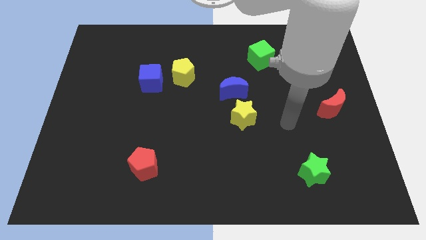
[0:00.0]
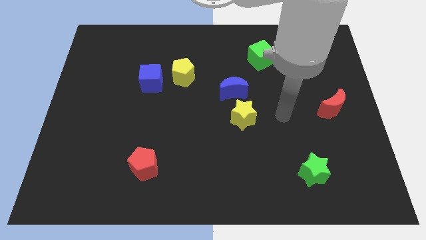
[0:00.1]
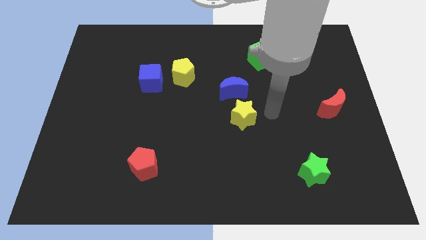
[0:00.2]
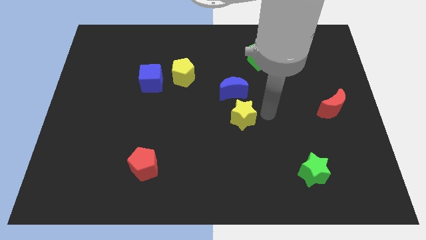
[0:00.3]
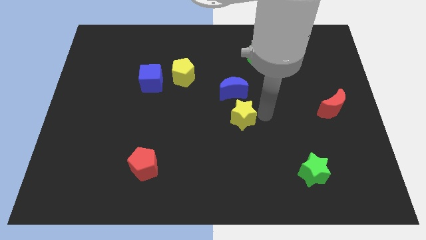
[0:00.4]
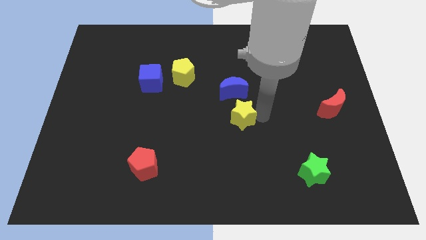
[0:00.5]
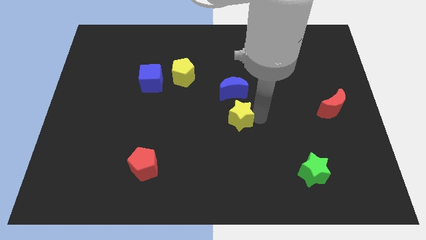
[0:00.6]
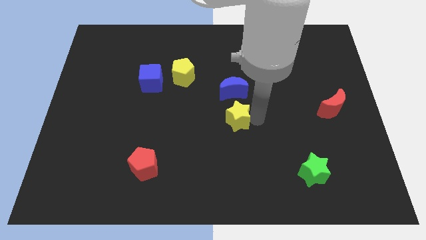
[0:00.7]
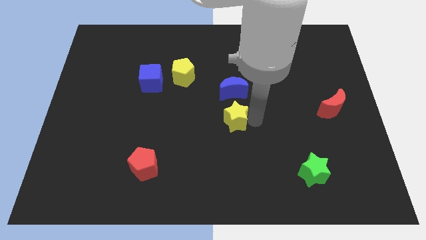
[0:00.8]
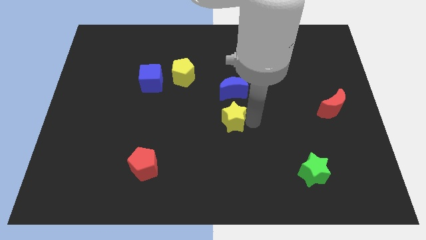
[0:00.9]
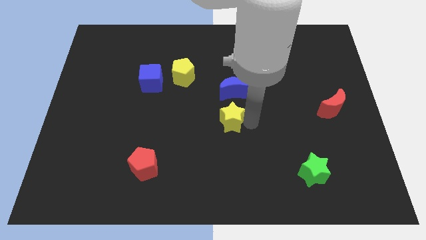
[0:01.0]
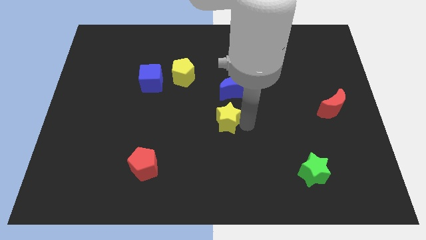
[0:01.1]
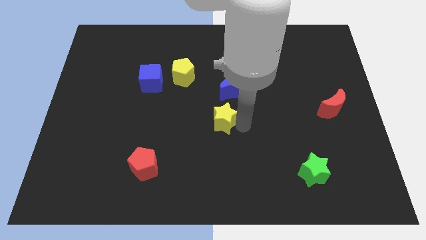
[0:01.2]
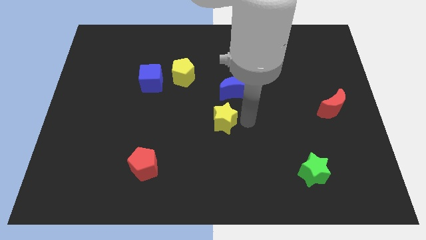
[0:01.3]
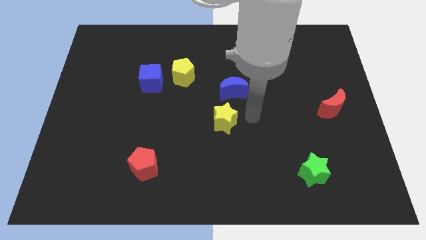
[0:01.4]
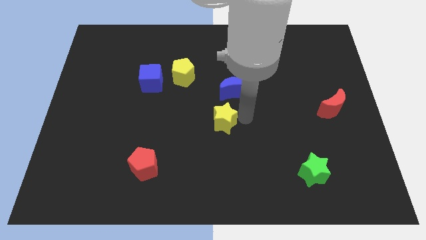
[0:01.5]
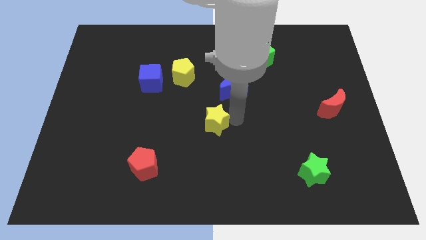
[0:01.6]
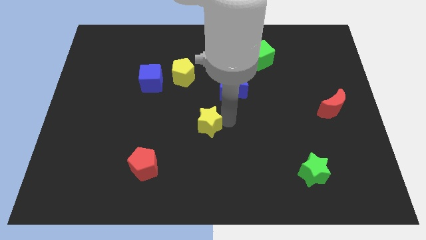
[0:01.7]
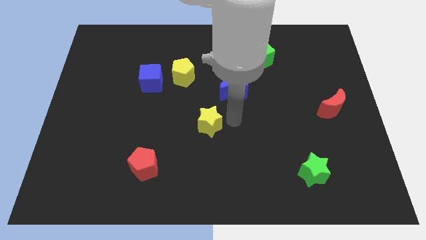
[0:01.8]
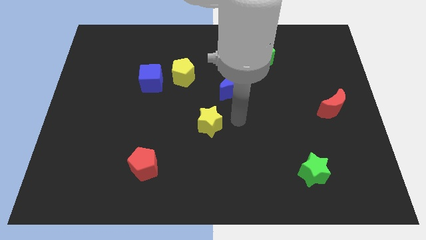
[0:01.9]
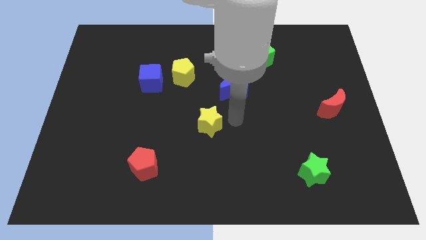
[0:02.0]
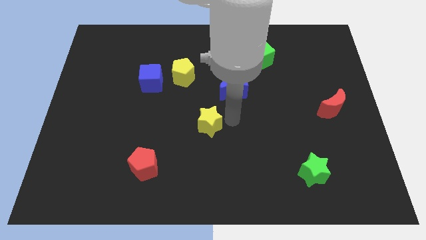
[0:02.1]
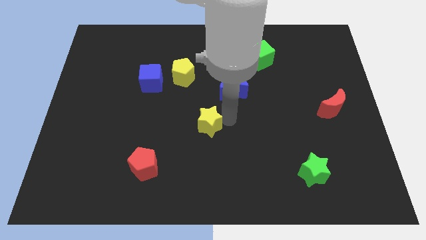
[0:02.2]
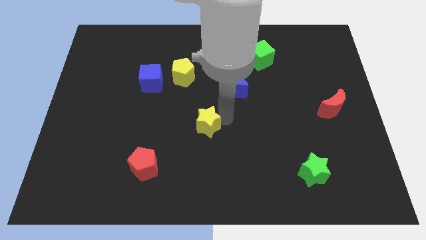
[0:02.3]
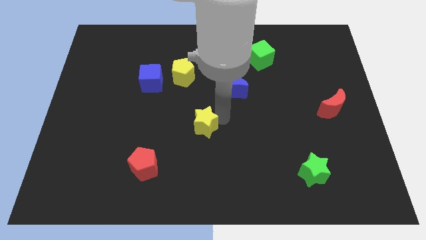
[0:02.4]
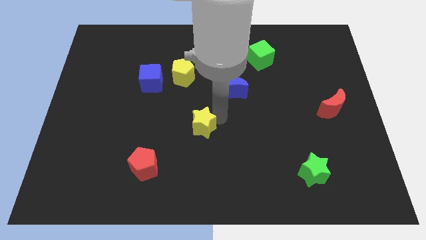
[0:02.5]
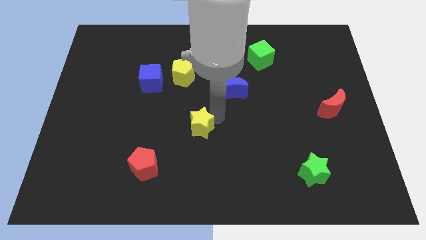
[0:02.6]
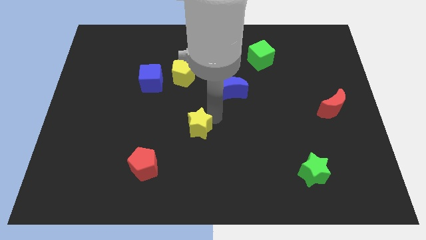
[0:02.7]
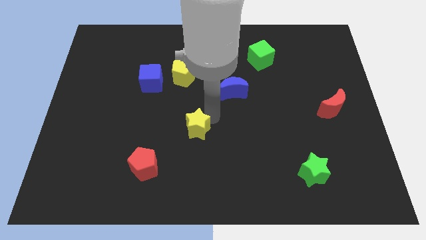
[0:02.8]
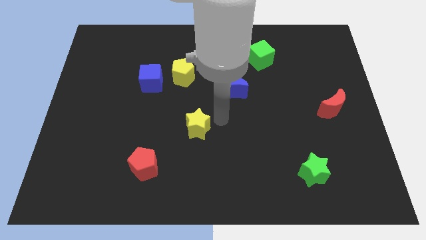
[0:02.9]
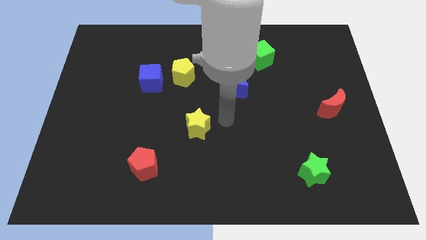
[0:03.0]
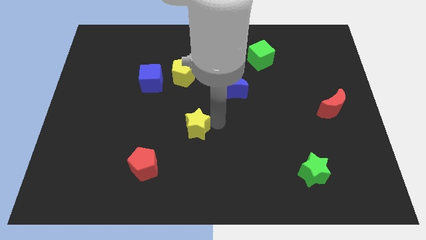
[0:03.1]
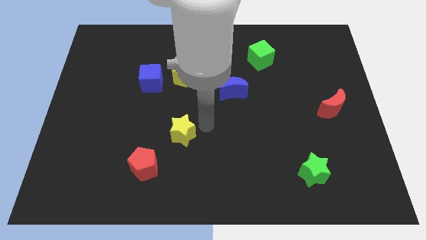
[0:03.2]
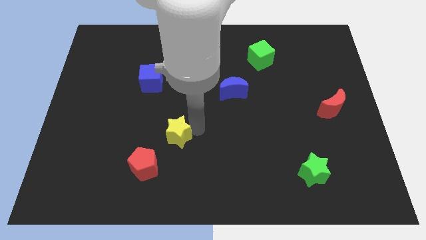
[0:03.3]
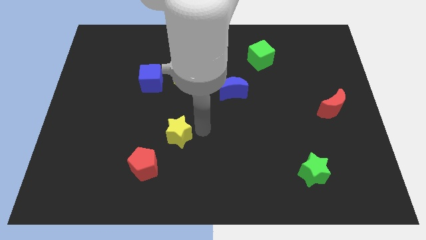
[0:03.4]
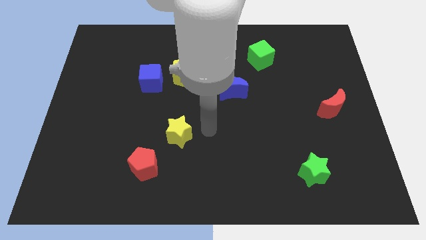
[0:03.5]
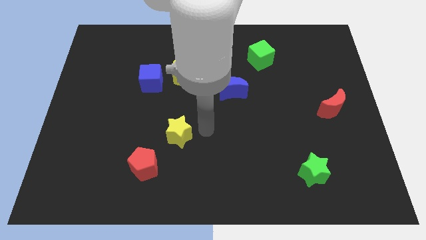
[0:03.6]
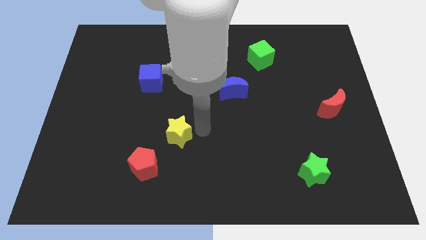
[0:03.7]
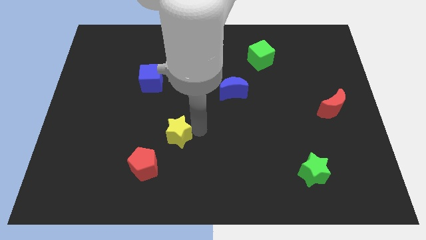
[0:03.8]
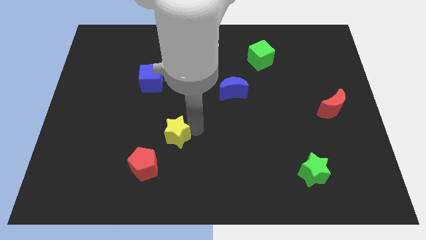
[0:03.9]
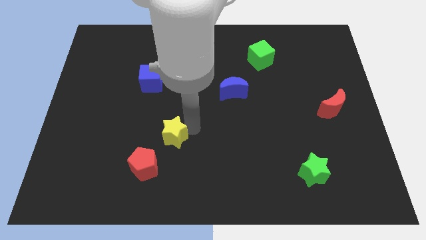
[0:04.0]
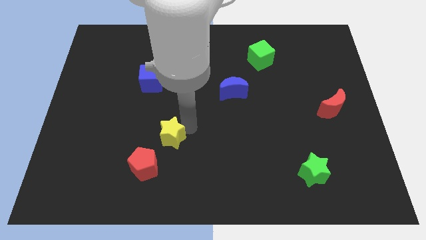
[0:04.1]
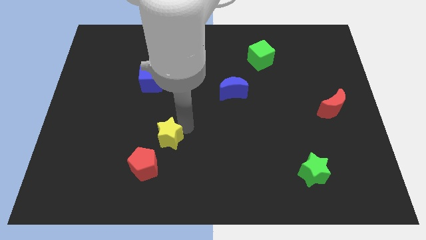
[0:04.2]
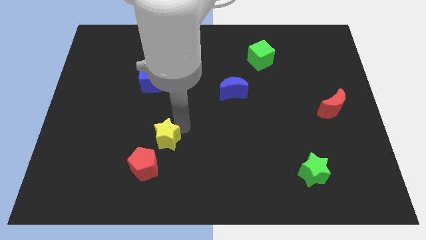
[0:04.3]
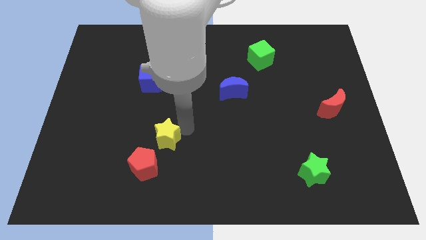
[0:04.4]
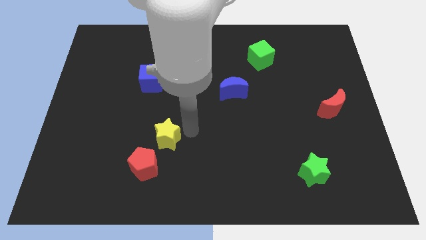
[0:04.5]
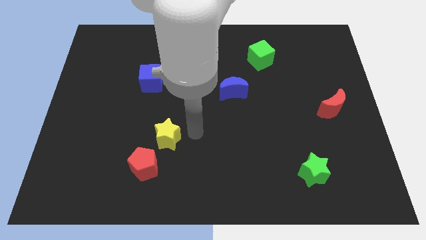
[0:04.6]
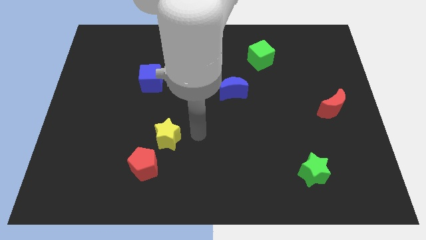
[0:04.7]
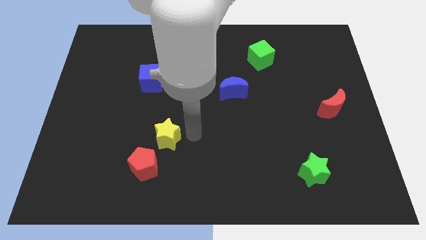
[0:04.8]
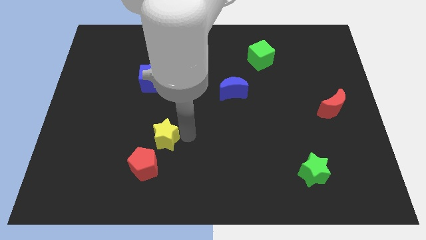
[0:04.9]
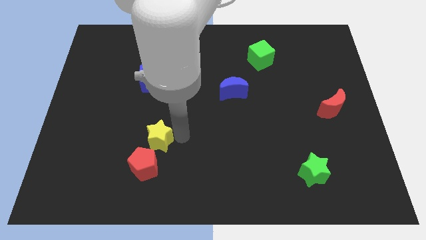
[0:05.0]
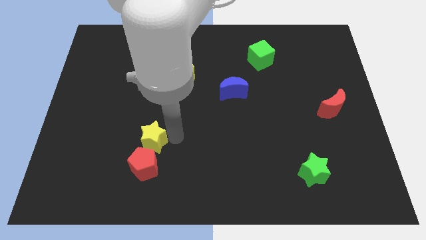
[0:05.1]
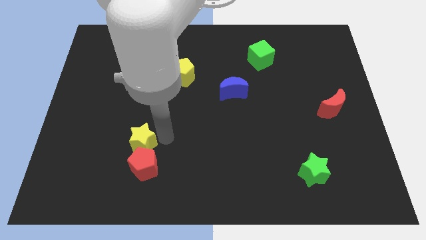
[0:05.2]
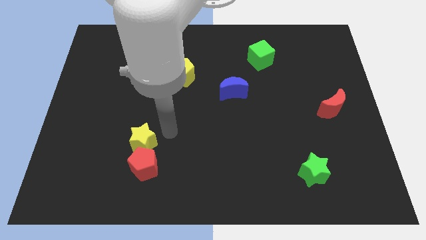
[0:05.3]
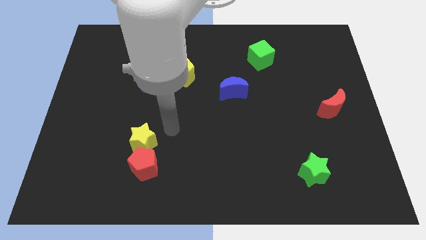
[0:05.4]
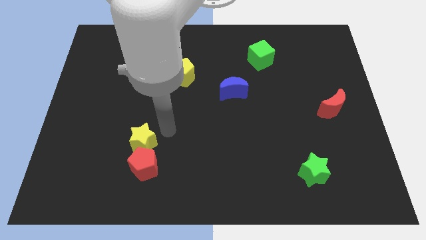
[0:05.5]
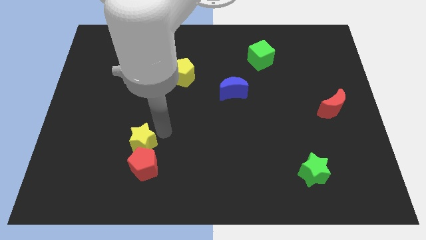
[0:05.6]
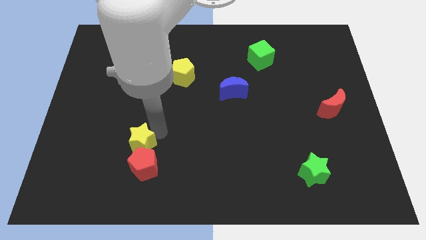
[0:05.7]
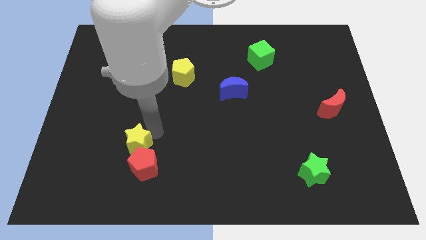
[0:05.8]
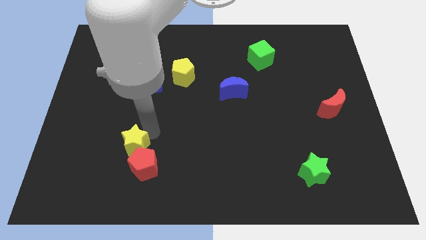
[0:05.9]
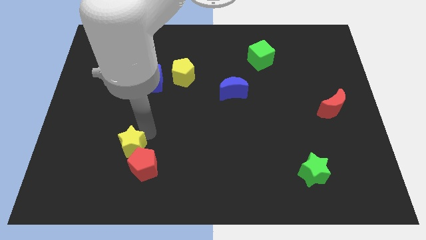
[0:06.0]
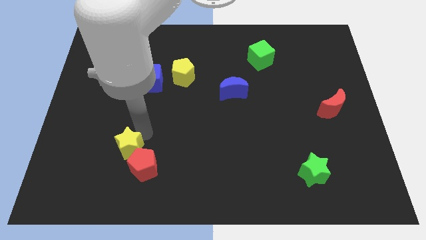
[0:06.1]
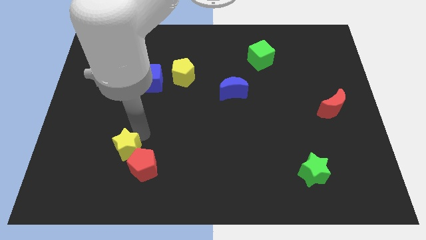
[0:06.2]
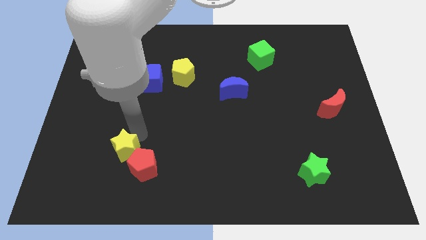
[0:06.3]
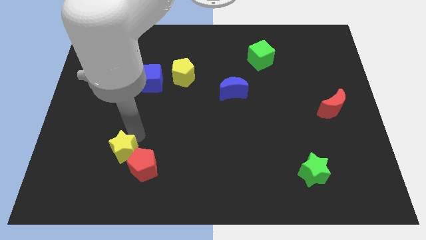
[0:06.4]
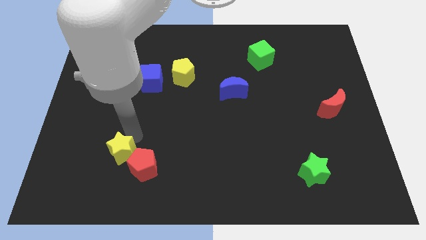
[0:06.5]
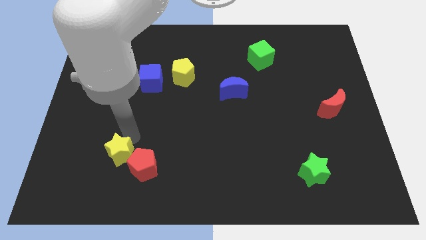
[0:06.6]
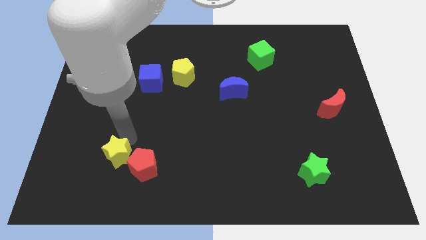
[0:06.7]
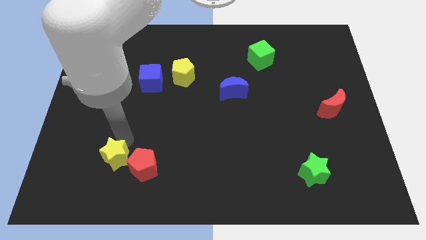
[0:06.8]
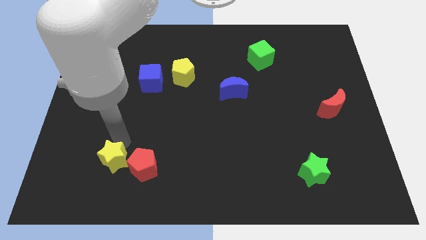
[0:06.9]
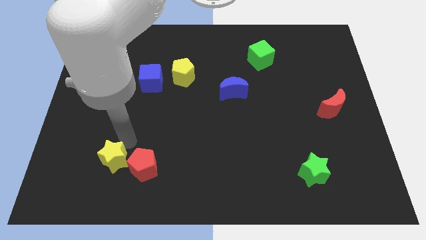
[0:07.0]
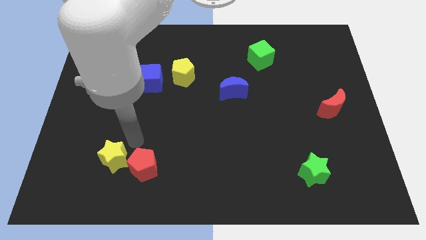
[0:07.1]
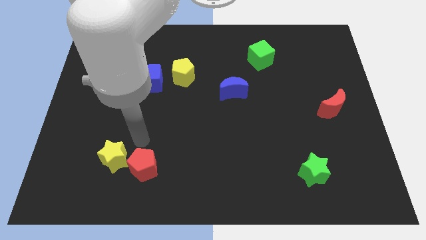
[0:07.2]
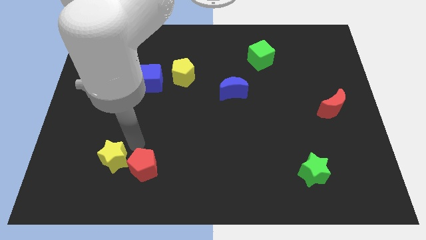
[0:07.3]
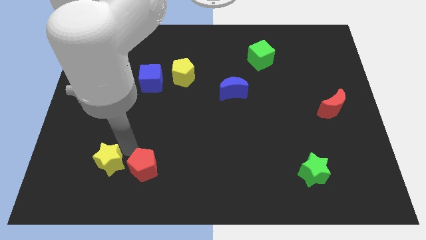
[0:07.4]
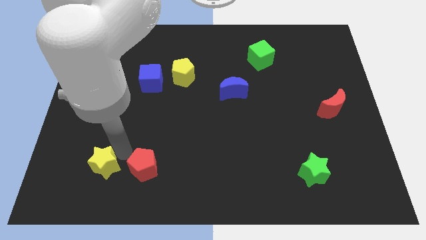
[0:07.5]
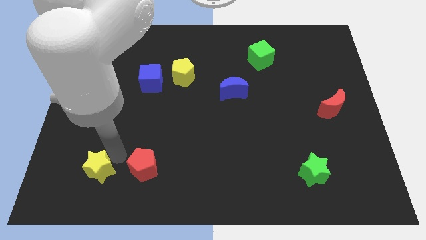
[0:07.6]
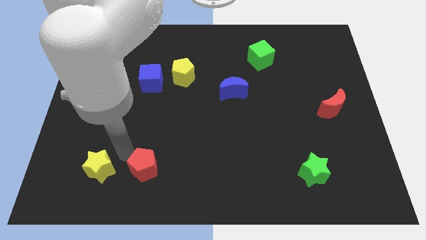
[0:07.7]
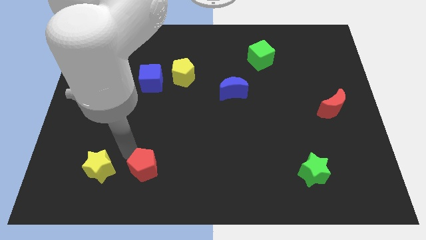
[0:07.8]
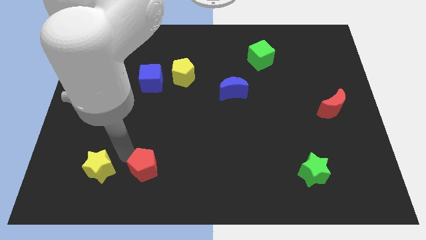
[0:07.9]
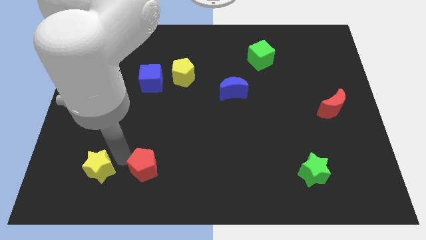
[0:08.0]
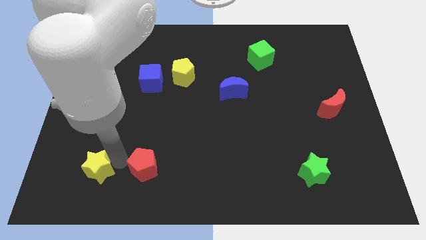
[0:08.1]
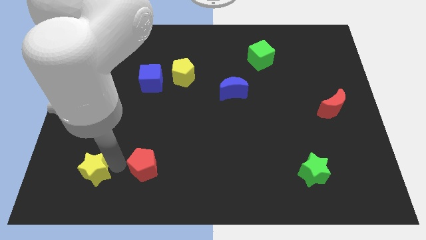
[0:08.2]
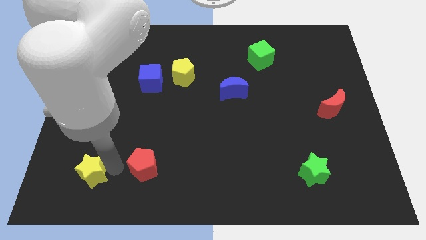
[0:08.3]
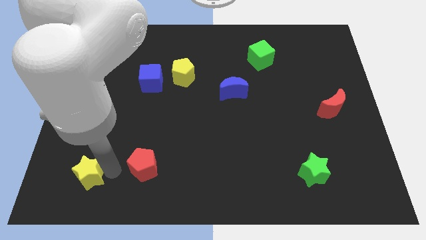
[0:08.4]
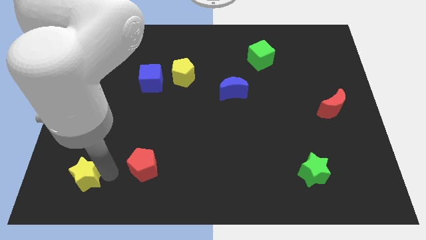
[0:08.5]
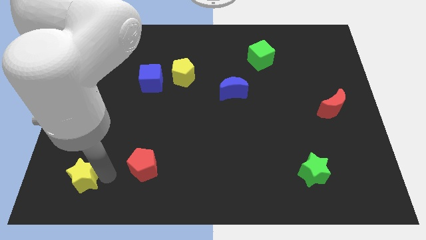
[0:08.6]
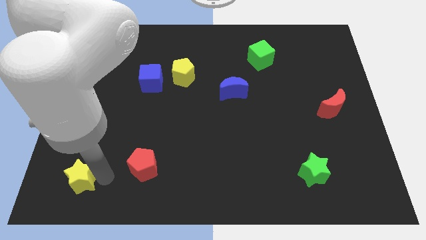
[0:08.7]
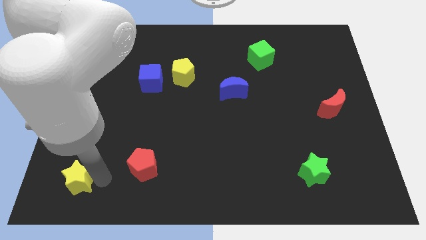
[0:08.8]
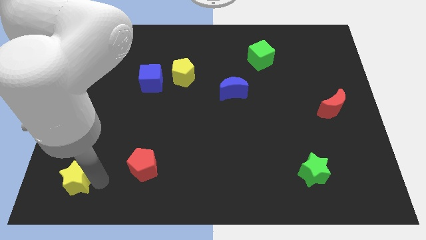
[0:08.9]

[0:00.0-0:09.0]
push the yellow star to the lower left corner
